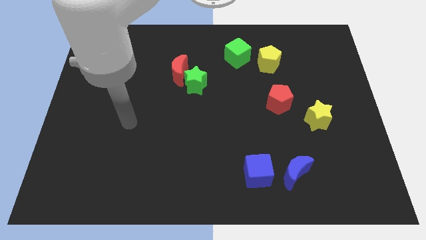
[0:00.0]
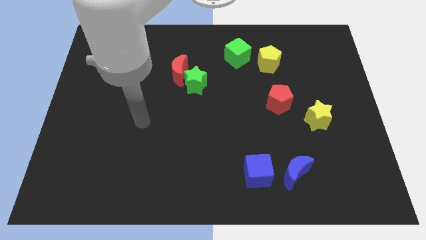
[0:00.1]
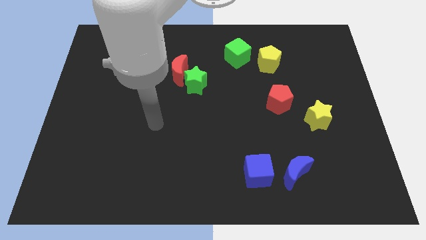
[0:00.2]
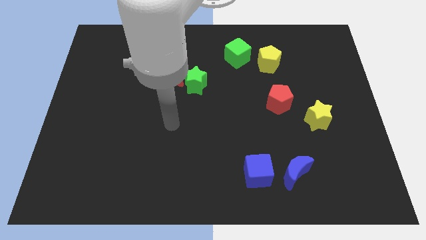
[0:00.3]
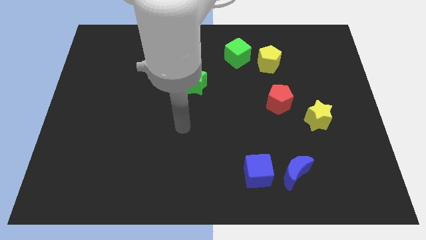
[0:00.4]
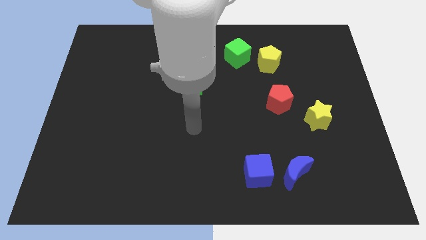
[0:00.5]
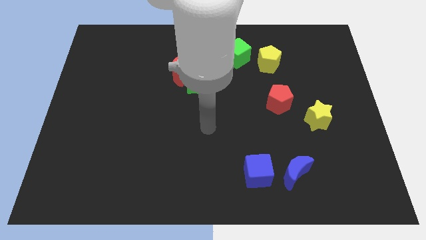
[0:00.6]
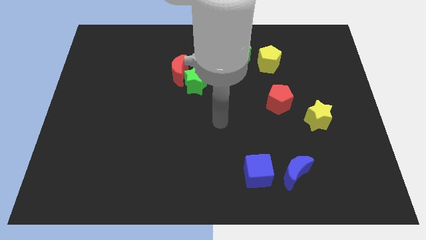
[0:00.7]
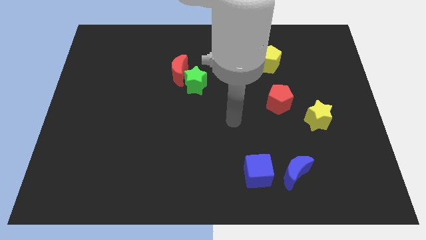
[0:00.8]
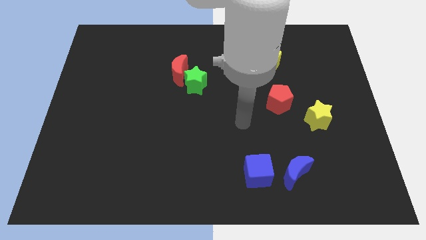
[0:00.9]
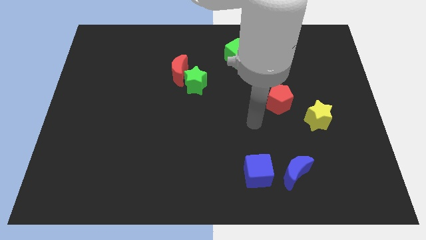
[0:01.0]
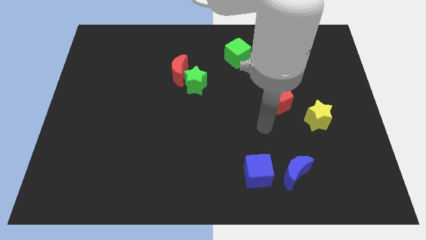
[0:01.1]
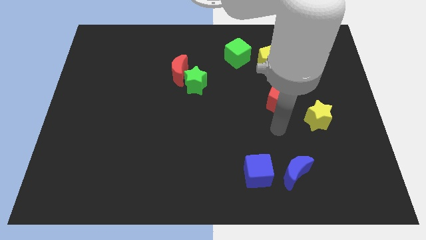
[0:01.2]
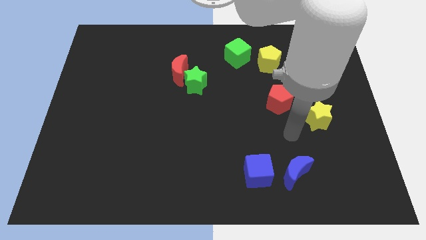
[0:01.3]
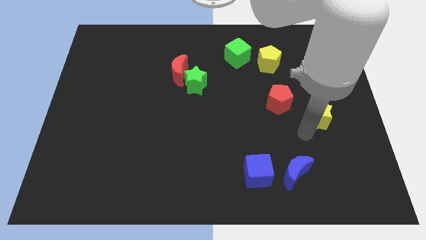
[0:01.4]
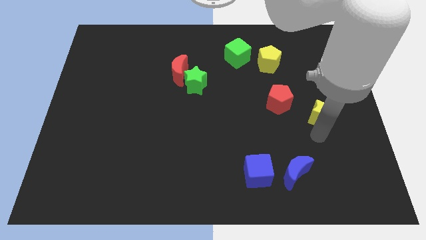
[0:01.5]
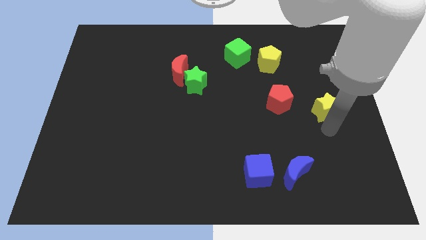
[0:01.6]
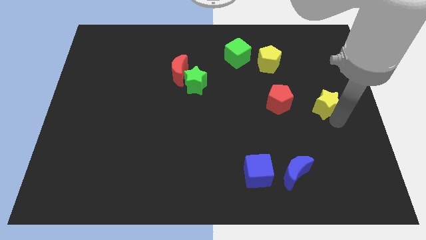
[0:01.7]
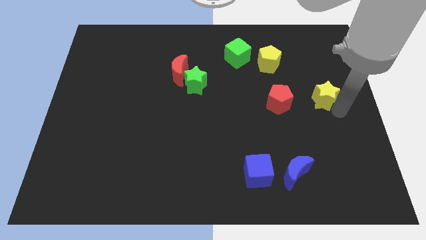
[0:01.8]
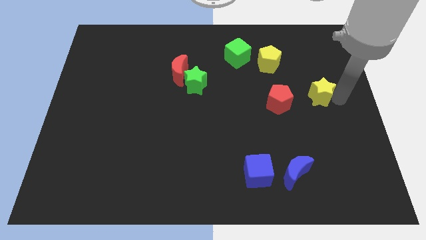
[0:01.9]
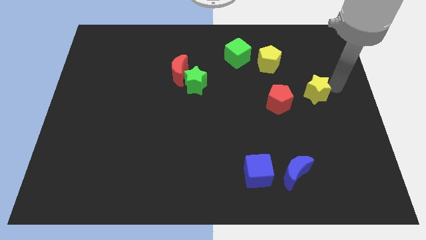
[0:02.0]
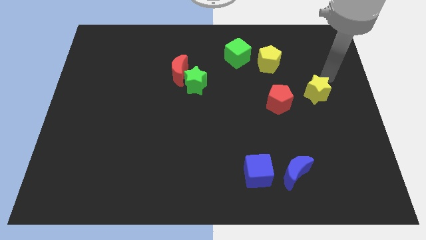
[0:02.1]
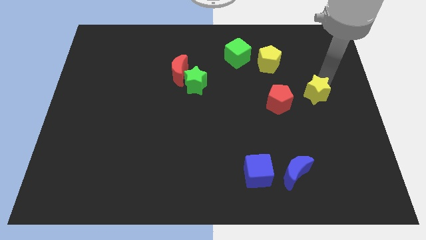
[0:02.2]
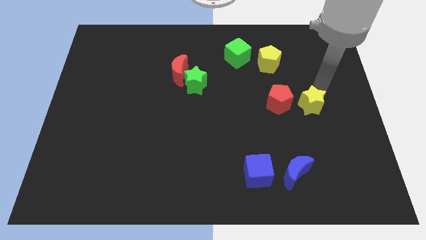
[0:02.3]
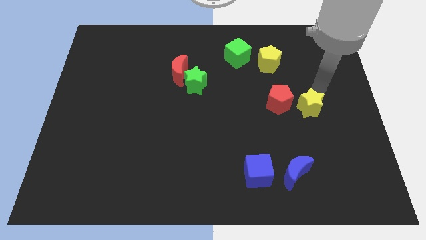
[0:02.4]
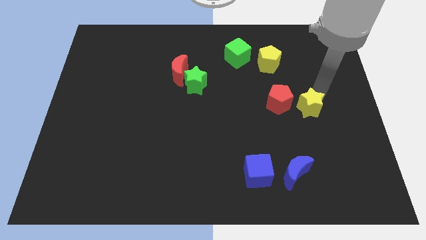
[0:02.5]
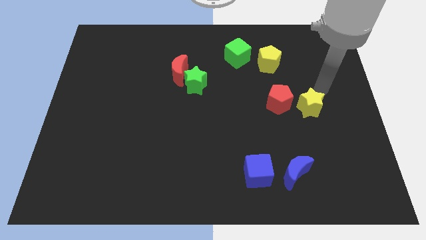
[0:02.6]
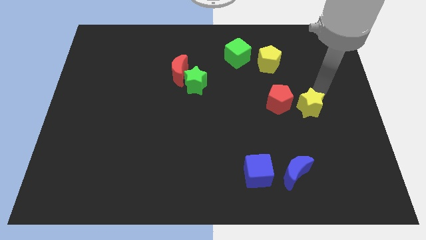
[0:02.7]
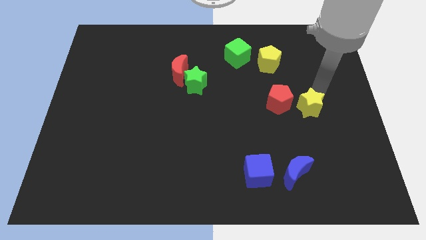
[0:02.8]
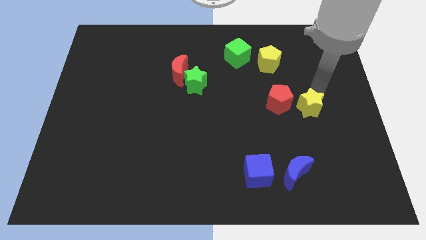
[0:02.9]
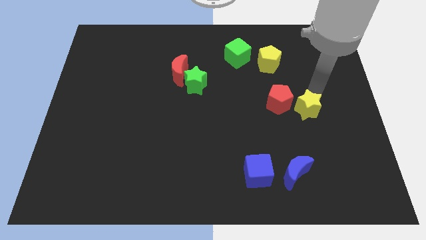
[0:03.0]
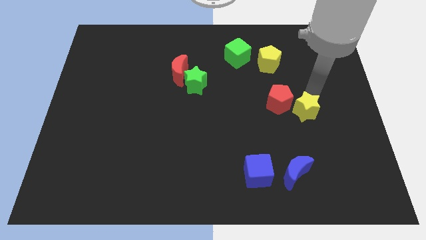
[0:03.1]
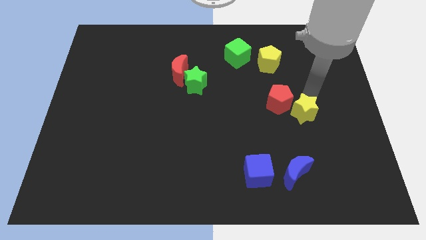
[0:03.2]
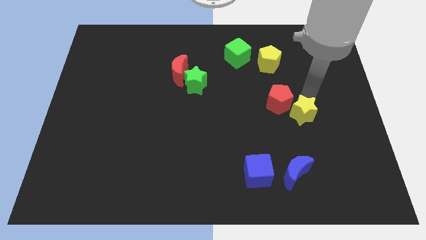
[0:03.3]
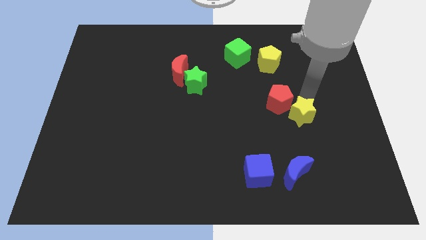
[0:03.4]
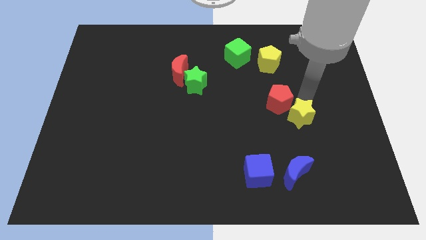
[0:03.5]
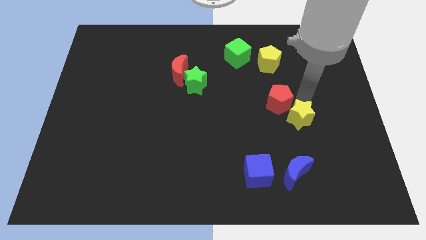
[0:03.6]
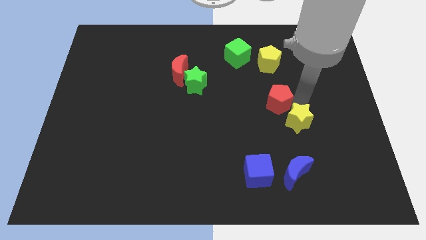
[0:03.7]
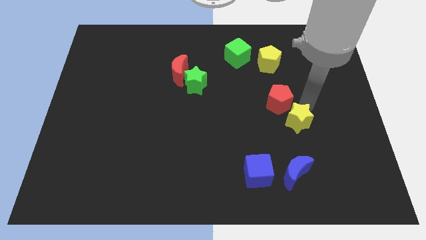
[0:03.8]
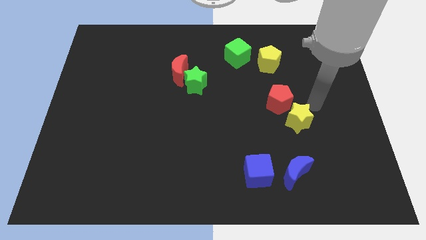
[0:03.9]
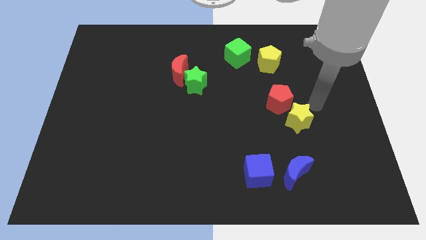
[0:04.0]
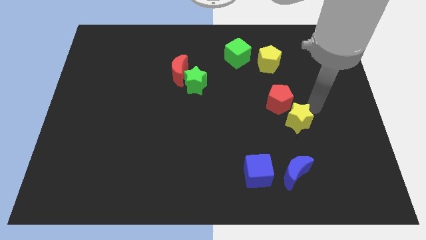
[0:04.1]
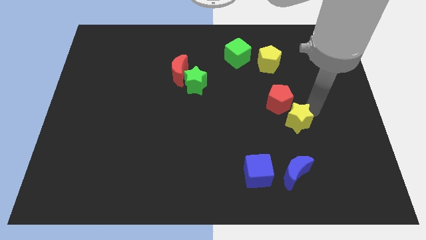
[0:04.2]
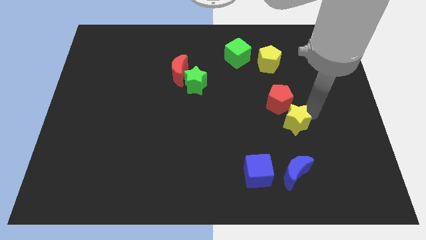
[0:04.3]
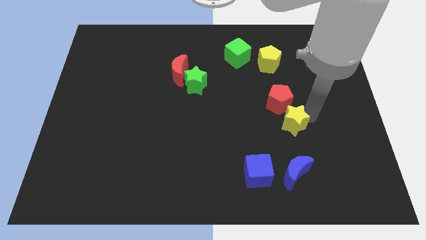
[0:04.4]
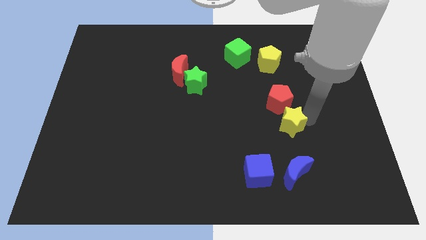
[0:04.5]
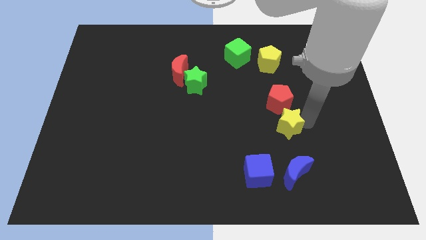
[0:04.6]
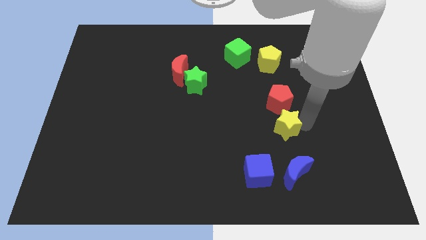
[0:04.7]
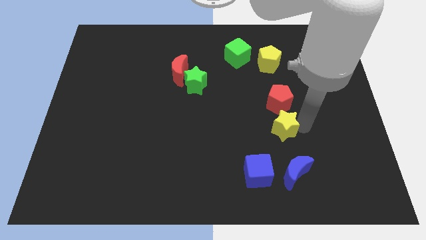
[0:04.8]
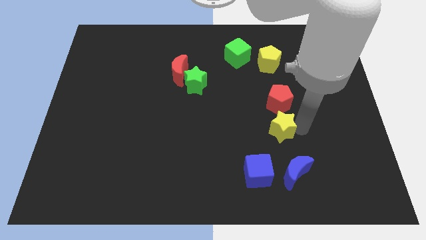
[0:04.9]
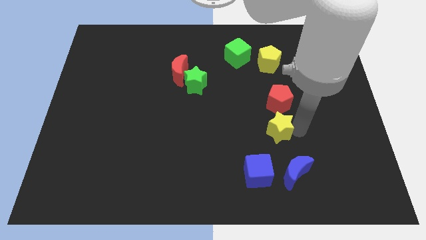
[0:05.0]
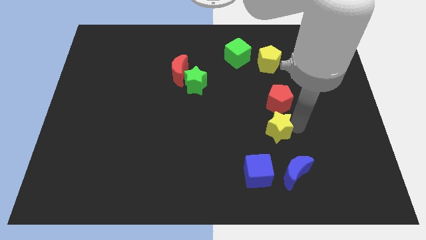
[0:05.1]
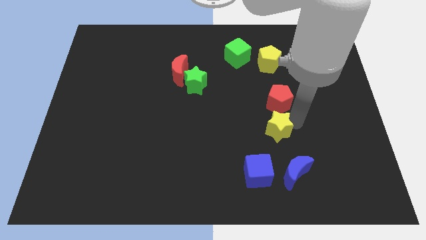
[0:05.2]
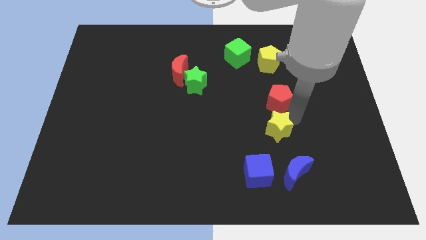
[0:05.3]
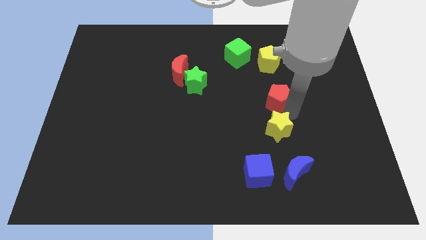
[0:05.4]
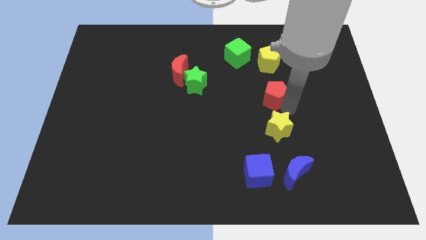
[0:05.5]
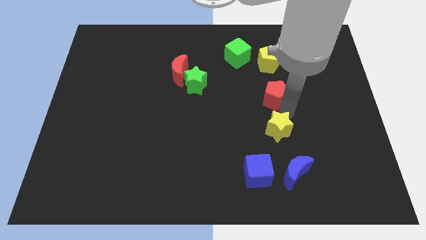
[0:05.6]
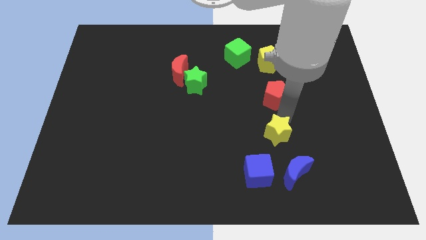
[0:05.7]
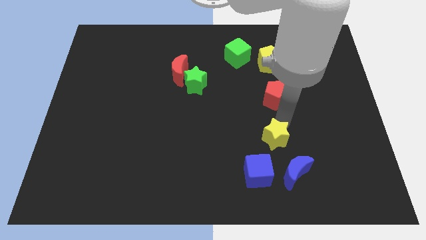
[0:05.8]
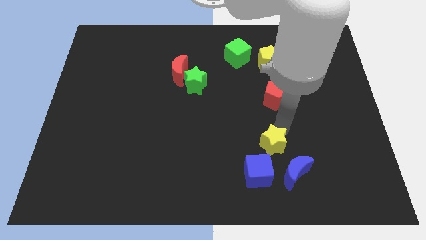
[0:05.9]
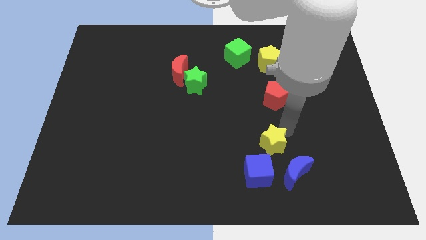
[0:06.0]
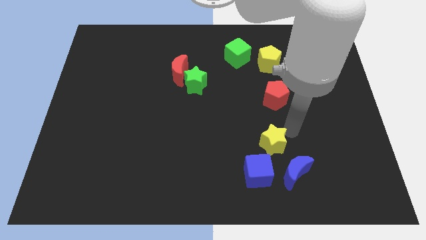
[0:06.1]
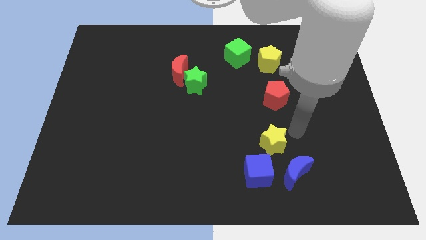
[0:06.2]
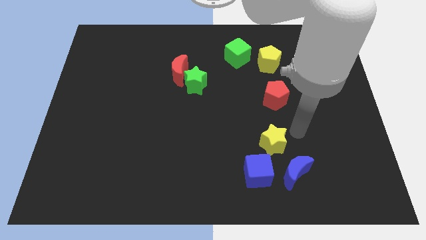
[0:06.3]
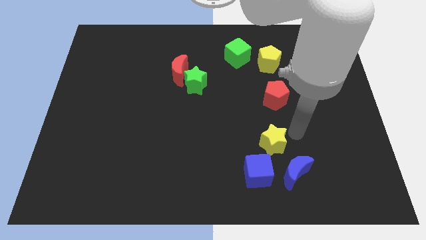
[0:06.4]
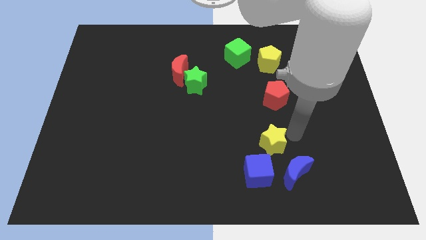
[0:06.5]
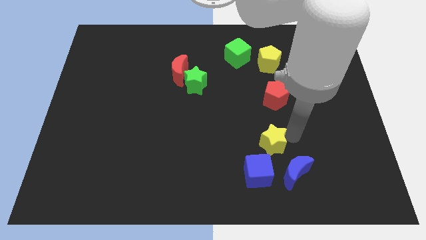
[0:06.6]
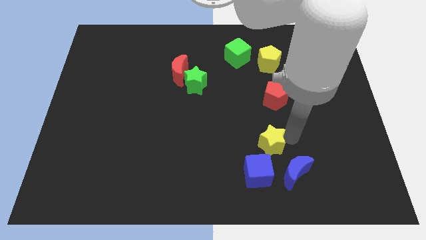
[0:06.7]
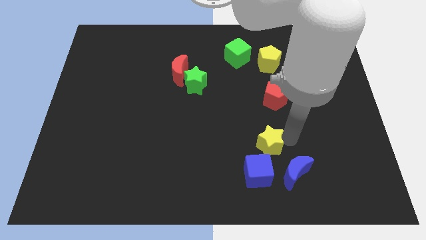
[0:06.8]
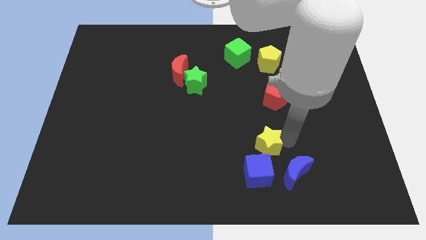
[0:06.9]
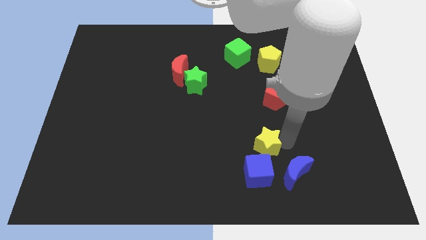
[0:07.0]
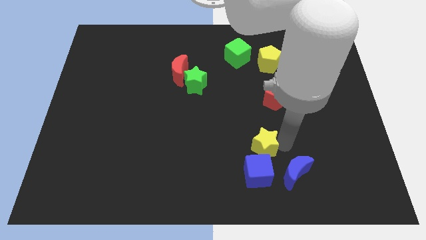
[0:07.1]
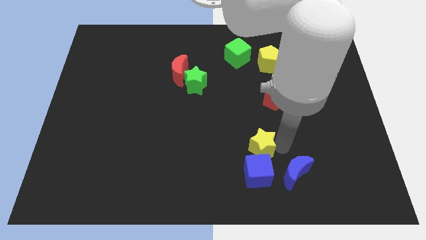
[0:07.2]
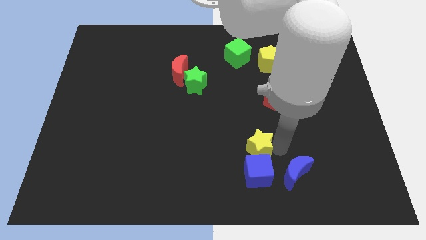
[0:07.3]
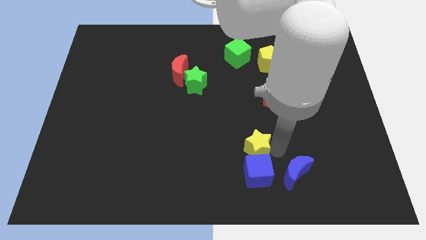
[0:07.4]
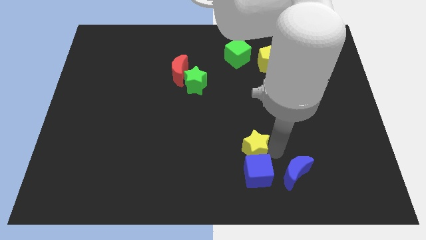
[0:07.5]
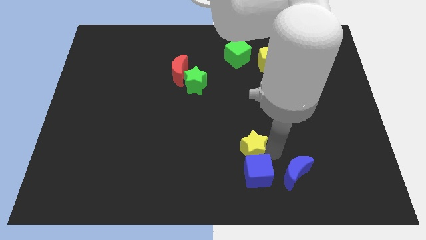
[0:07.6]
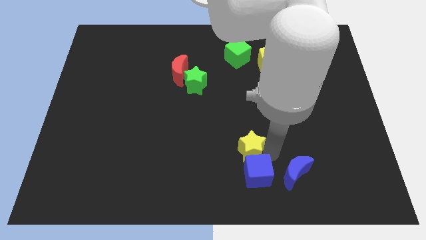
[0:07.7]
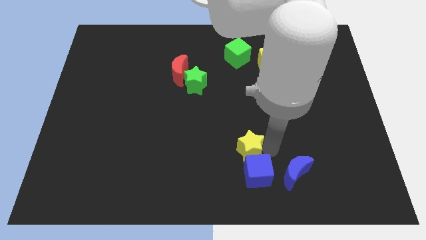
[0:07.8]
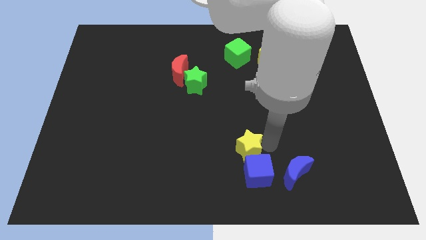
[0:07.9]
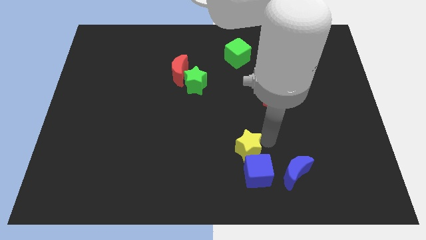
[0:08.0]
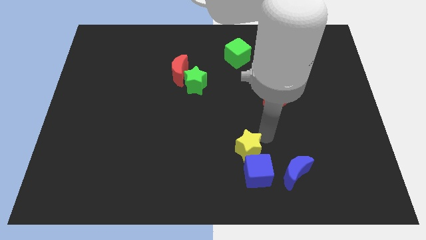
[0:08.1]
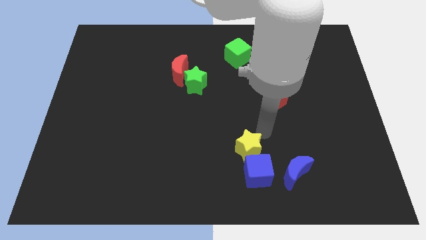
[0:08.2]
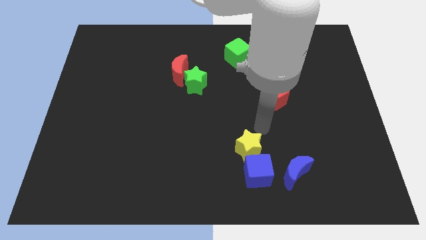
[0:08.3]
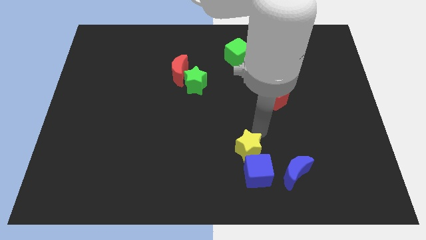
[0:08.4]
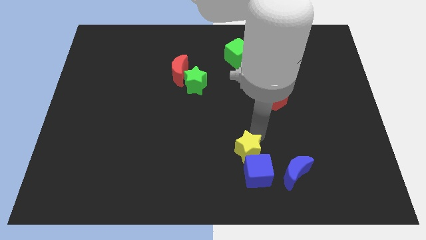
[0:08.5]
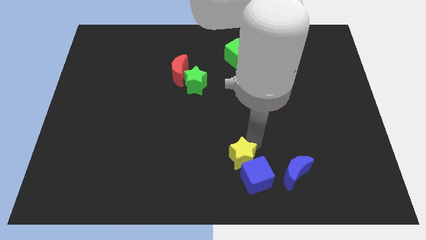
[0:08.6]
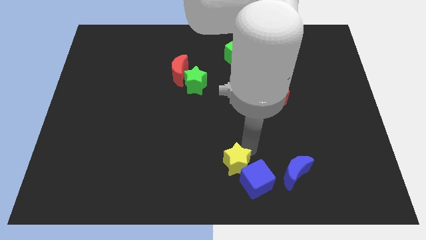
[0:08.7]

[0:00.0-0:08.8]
slide the yellow star to the bottom side
